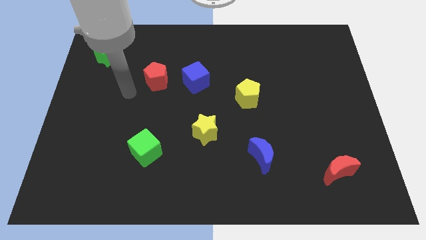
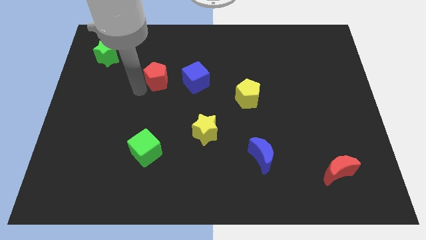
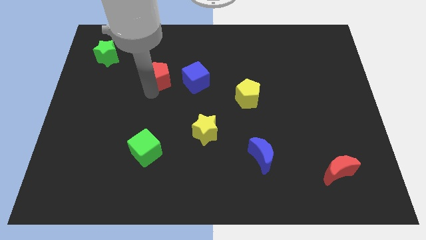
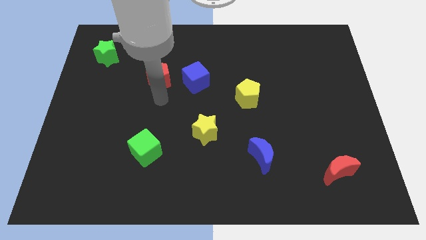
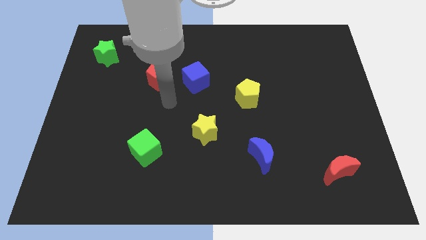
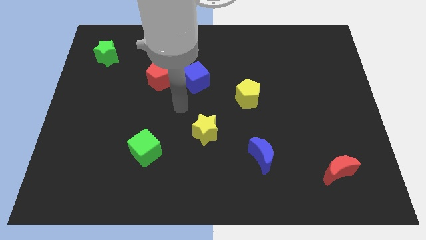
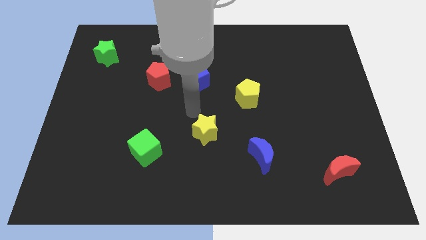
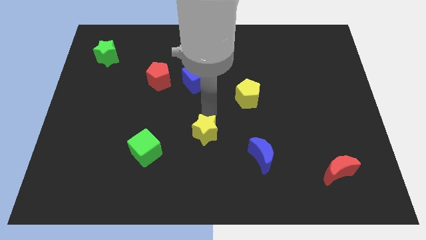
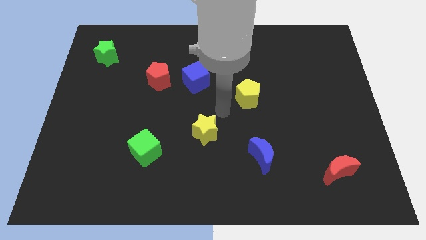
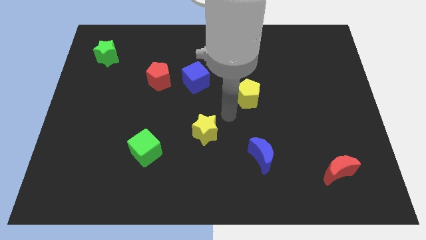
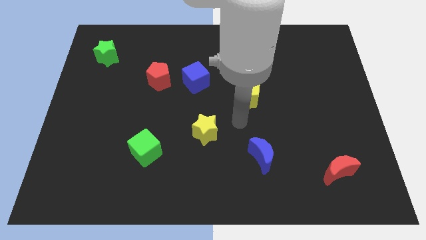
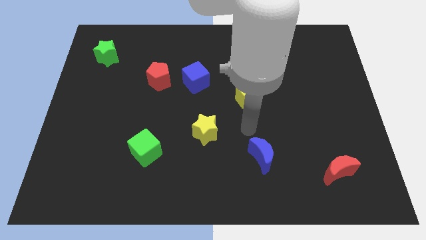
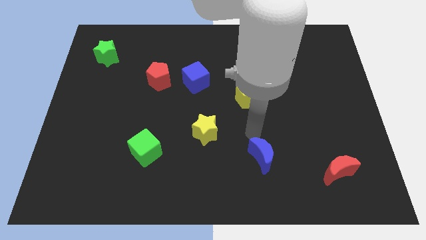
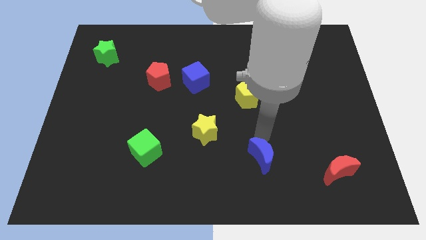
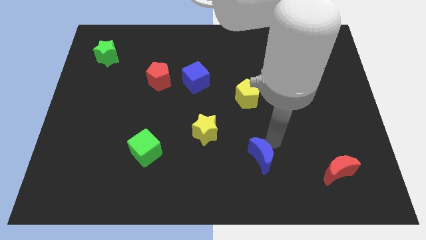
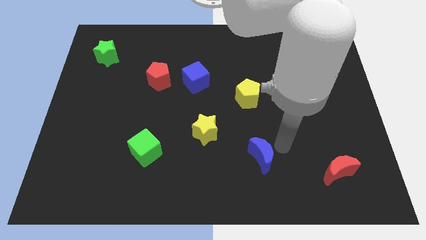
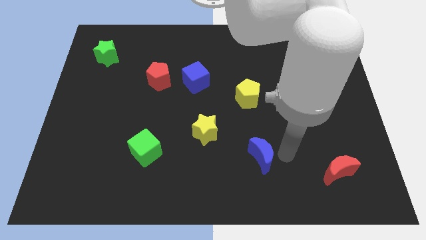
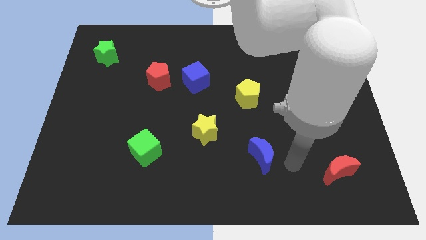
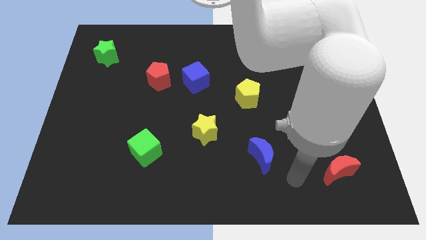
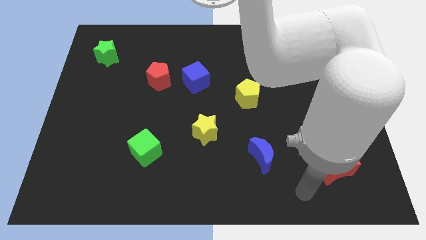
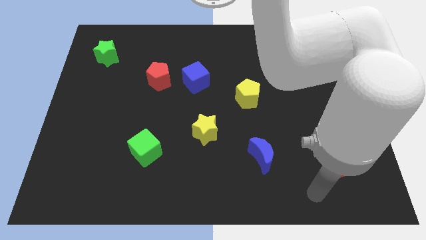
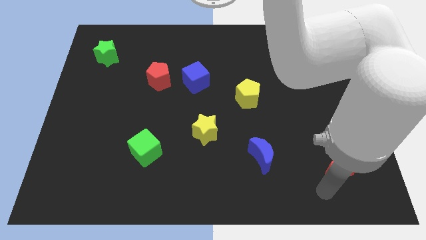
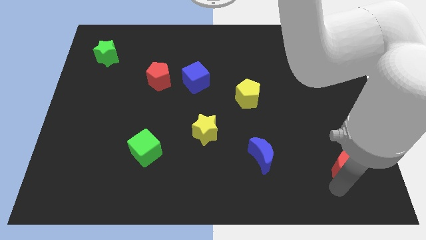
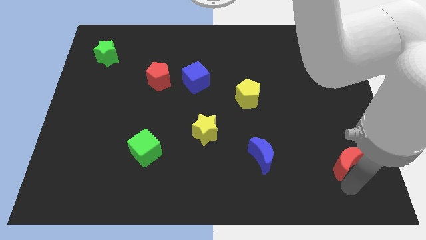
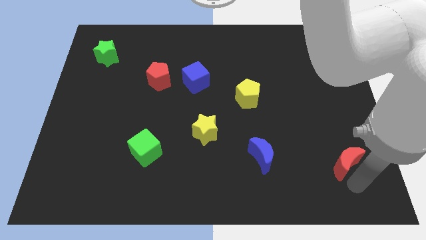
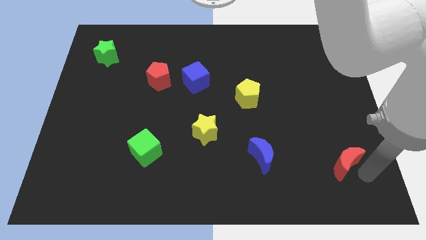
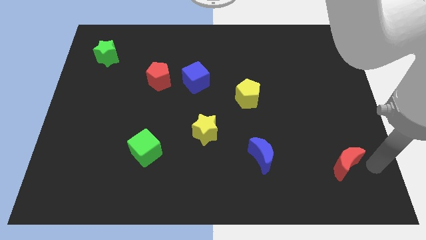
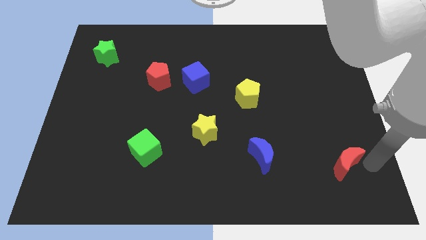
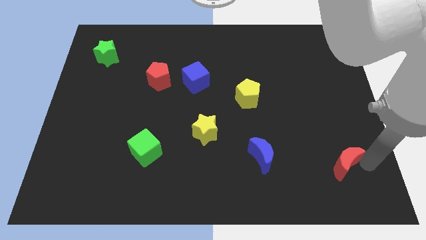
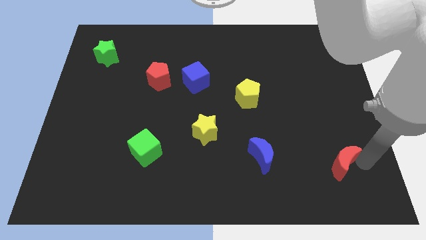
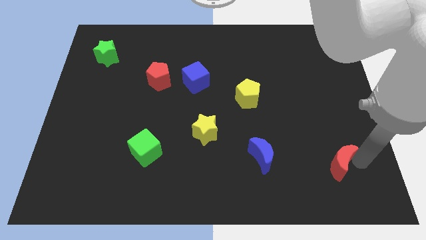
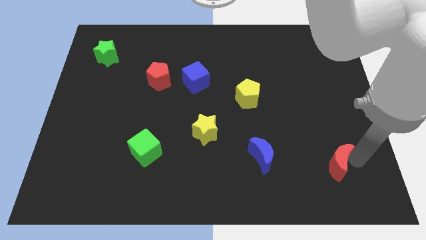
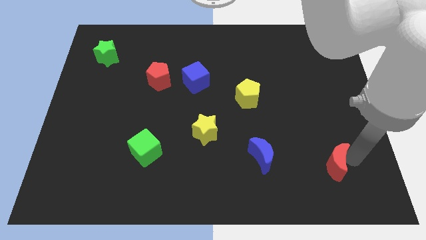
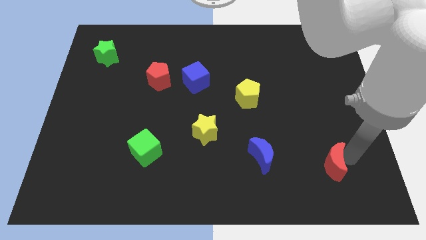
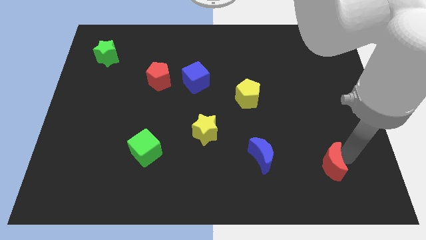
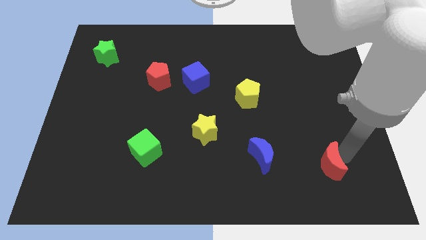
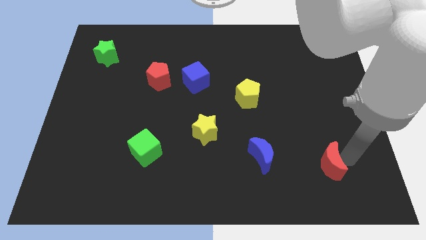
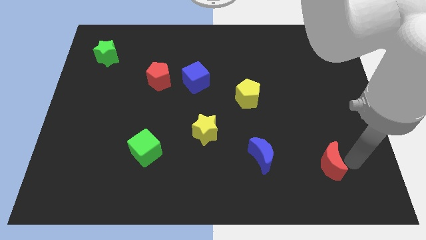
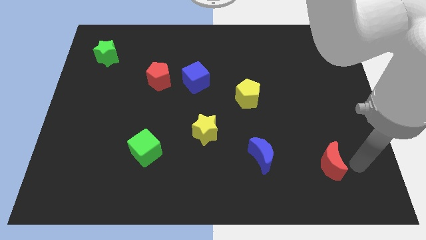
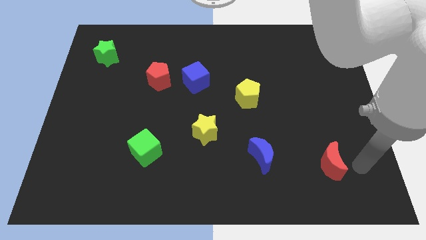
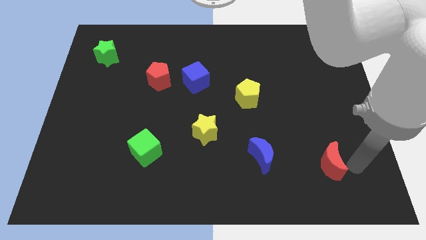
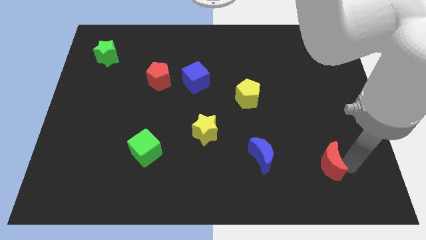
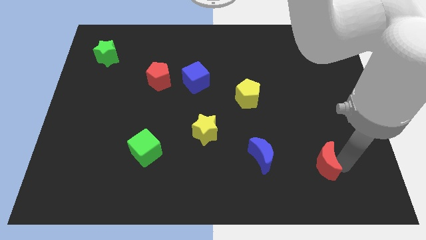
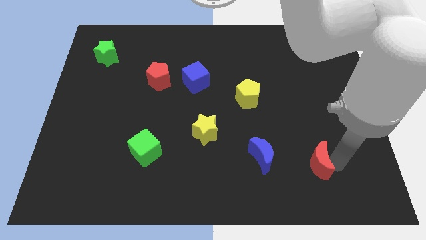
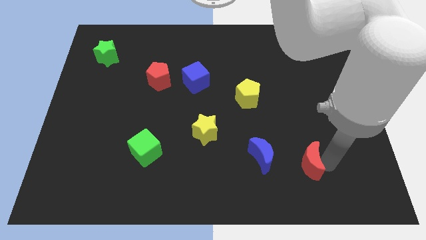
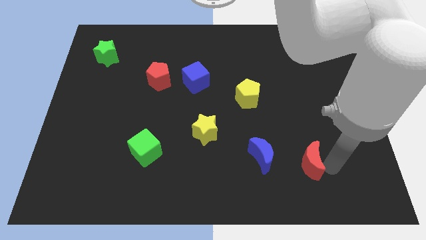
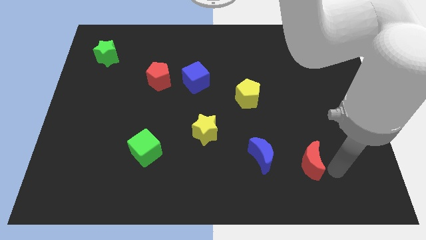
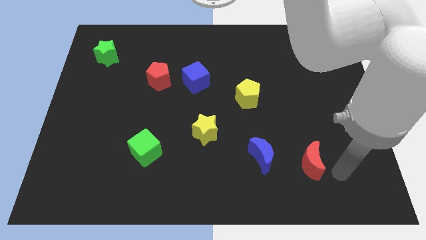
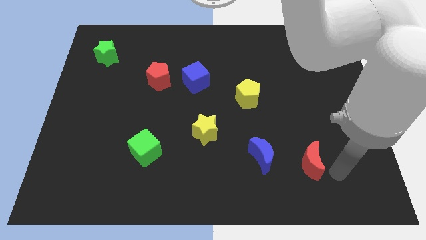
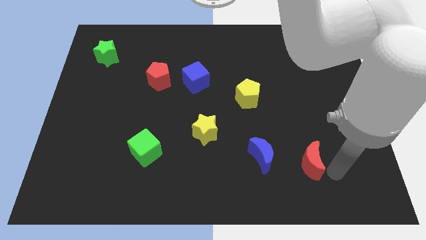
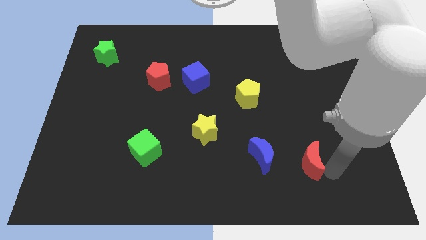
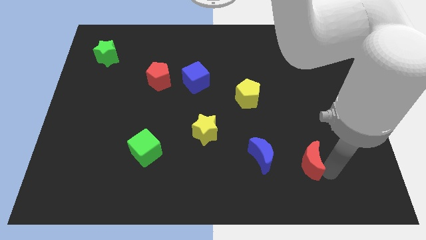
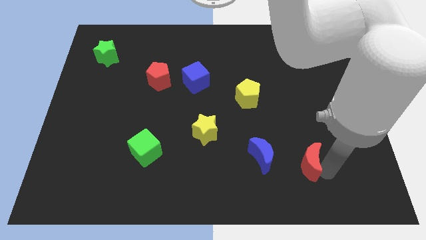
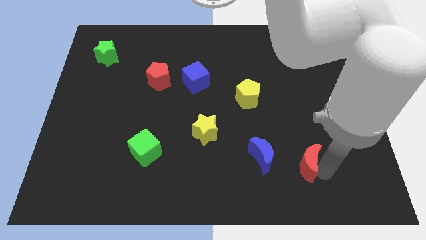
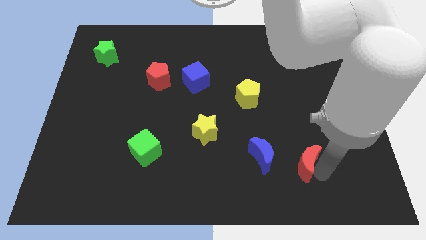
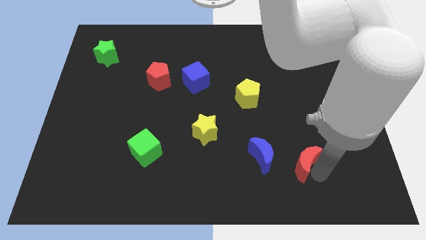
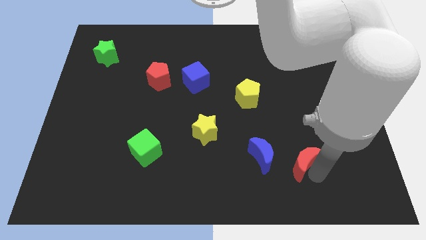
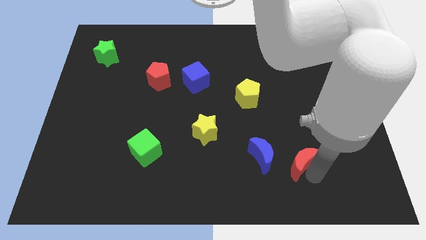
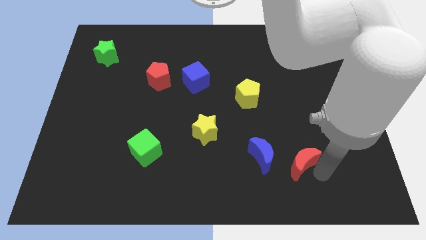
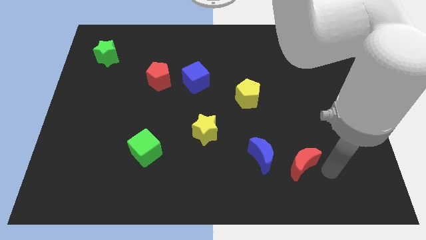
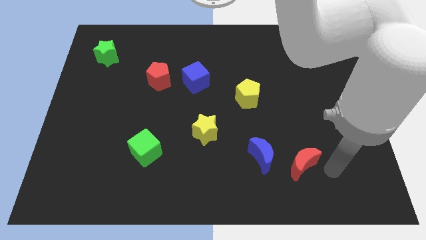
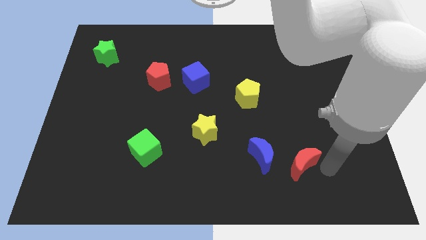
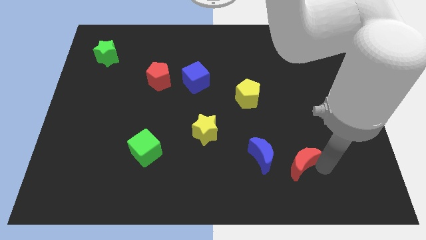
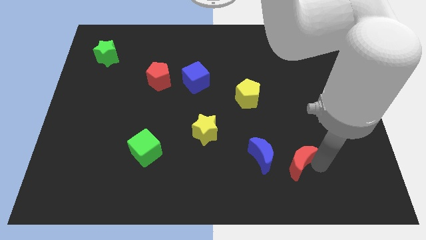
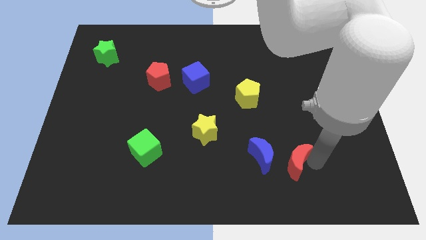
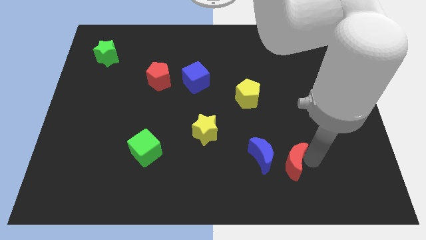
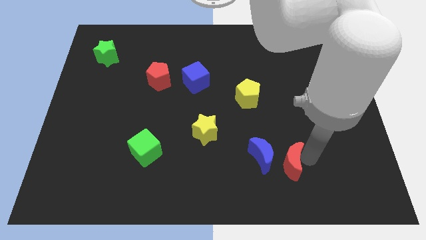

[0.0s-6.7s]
move the red moon close to the blue moon

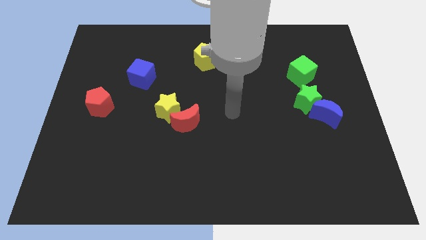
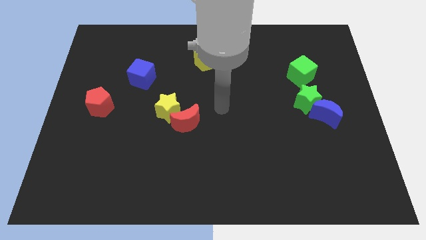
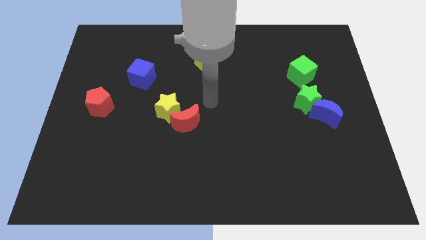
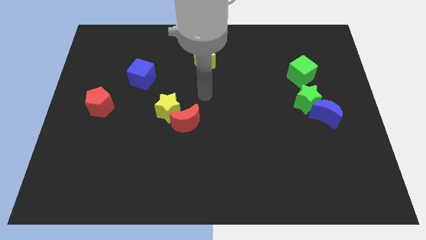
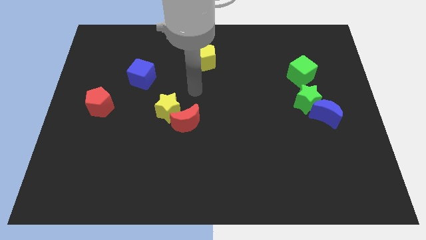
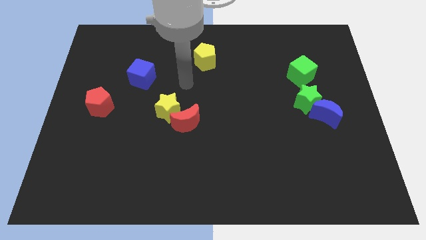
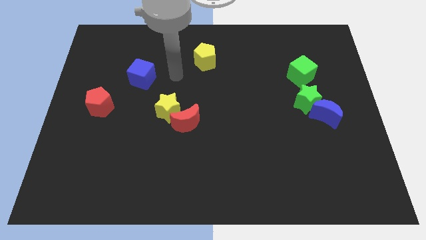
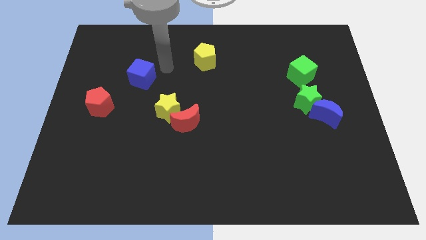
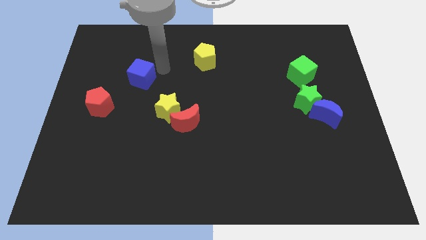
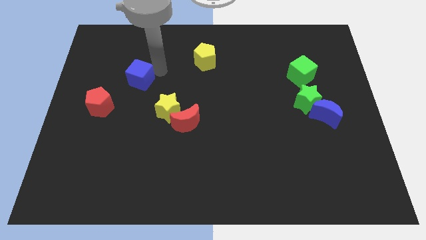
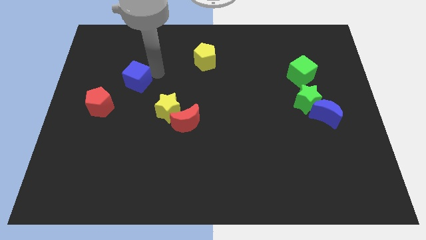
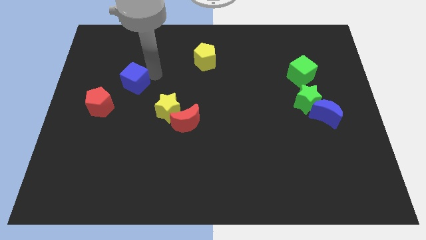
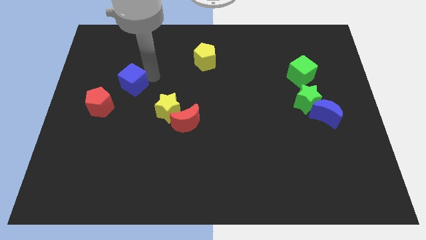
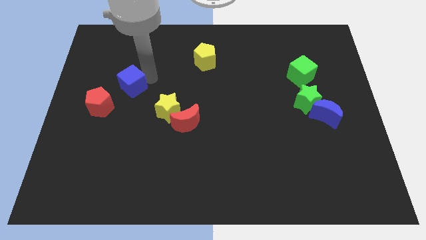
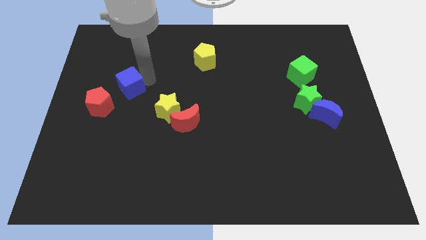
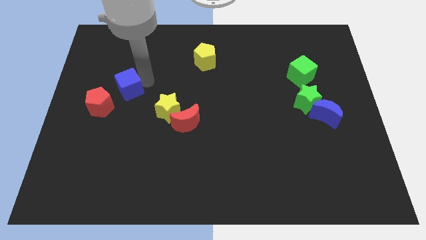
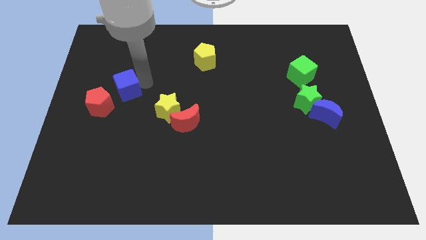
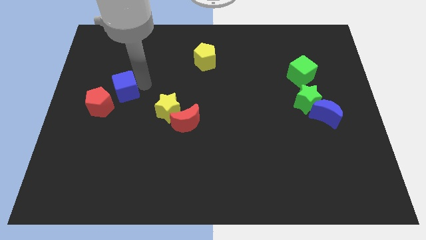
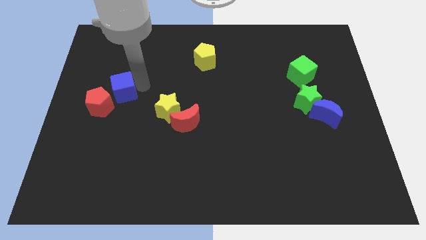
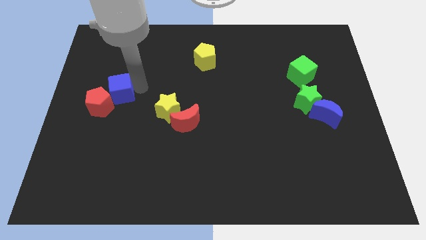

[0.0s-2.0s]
slide the blue cube to the red pentagon
